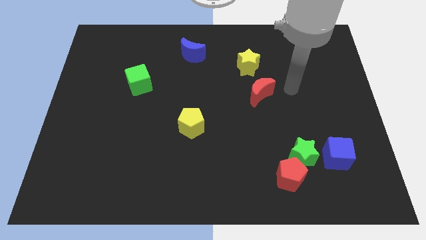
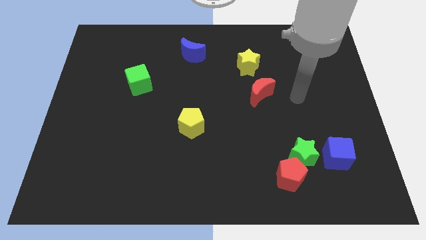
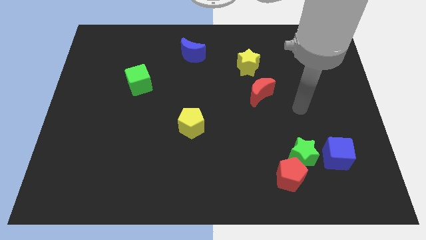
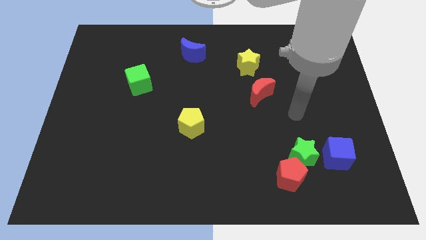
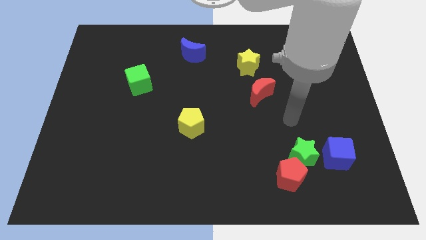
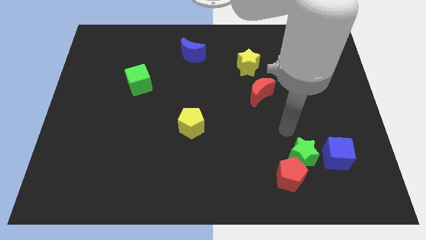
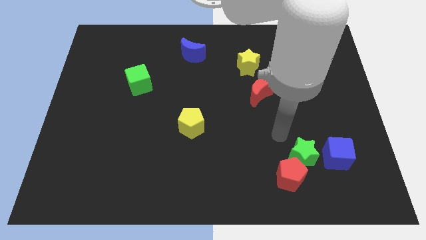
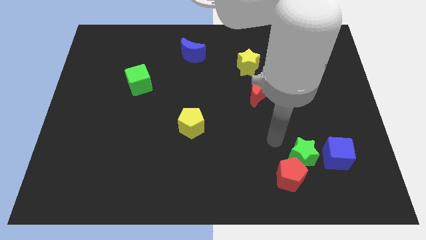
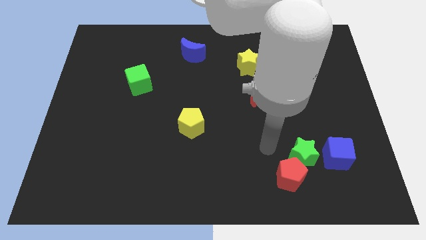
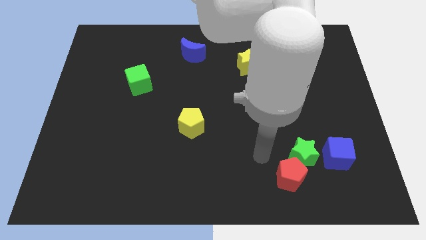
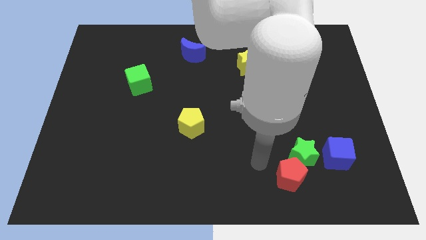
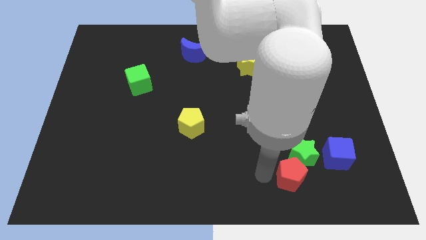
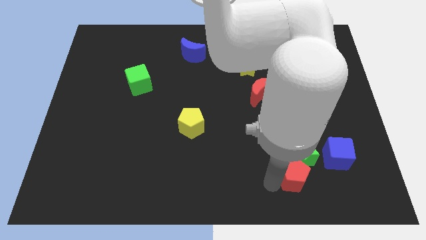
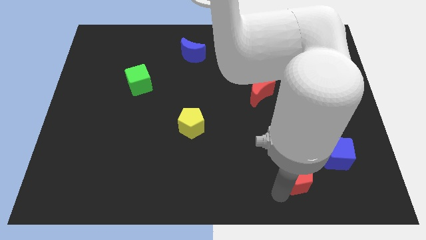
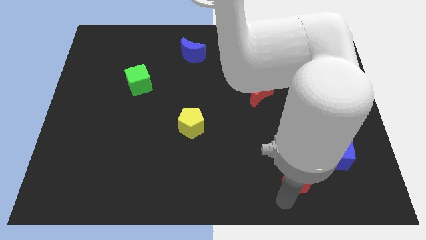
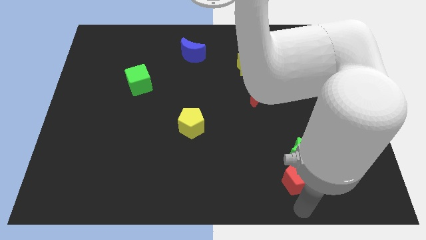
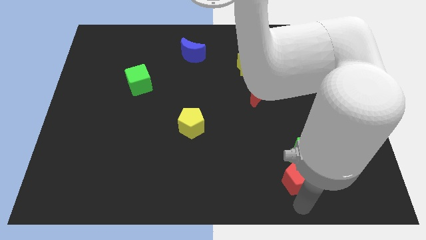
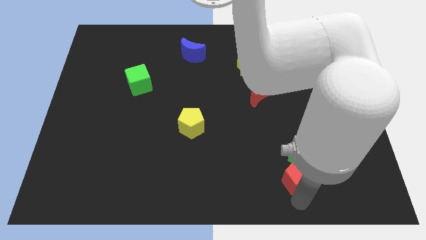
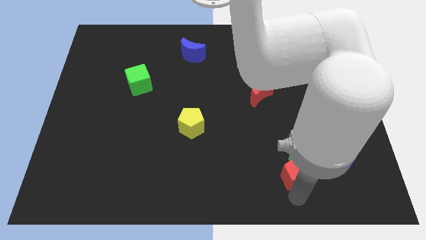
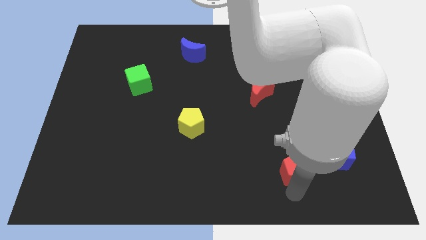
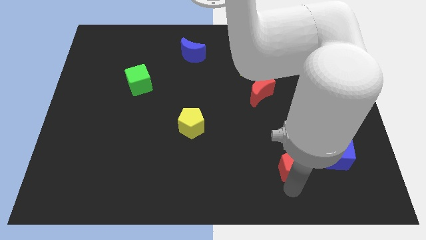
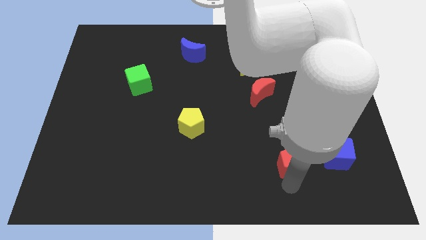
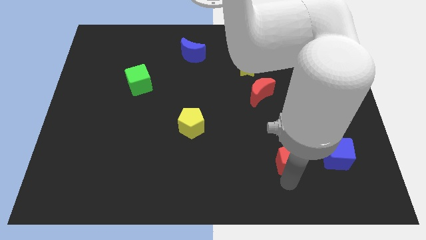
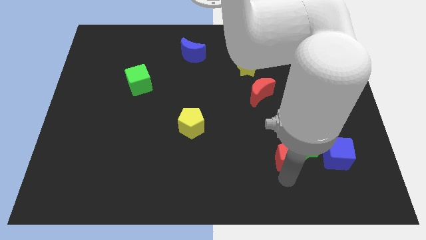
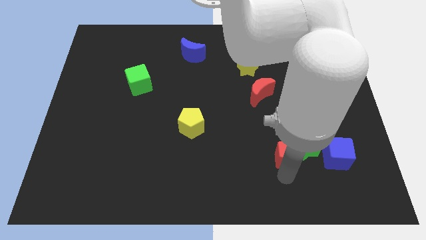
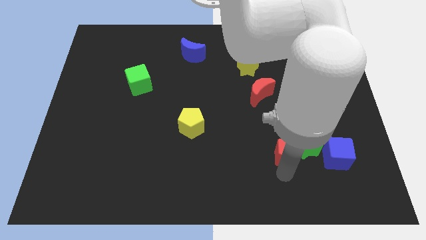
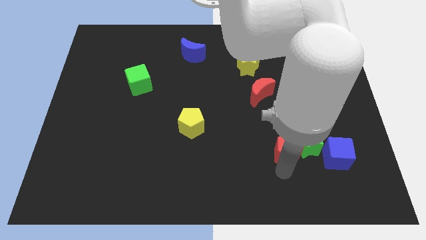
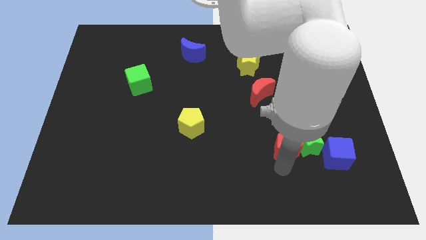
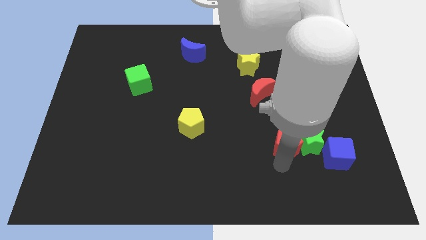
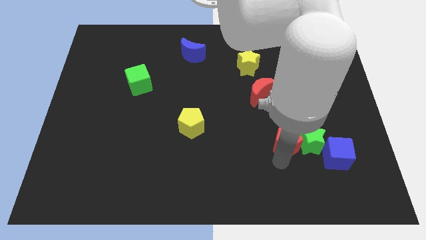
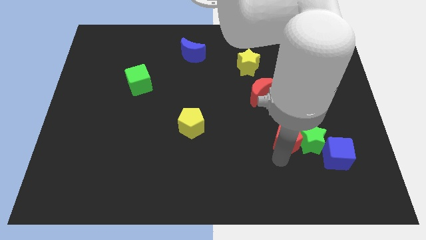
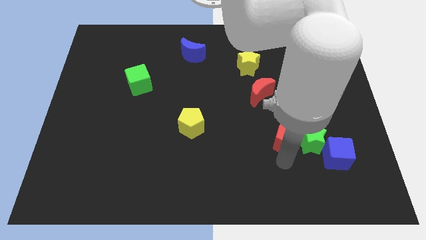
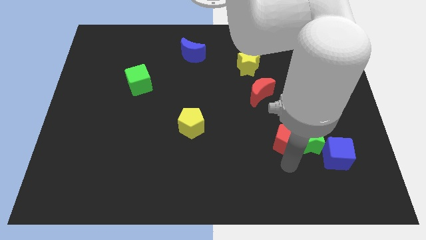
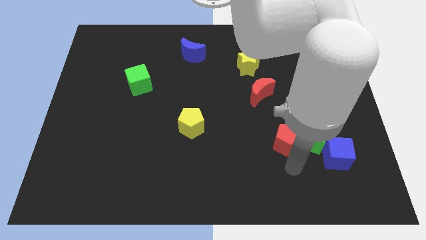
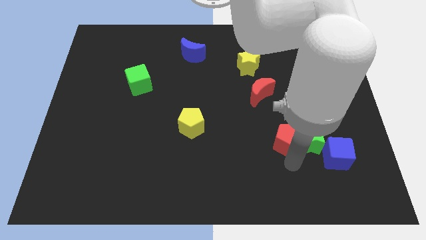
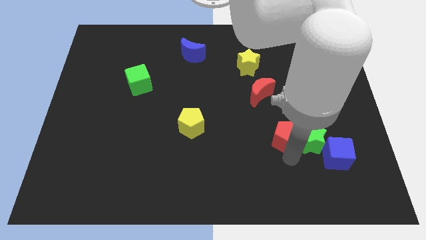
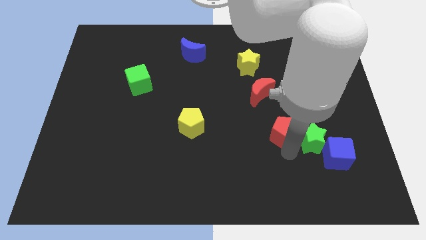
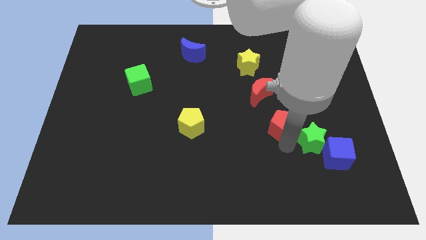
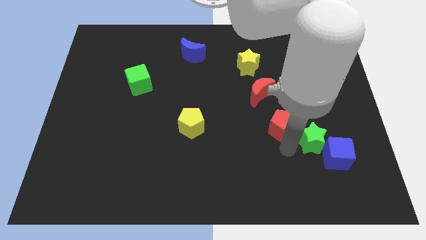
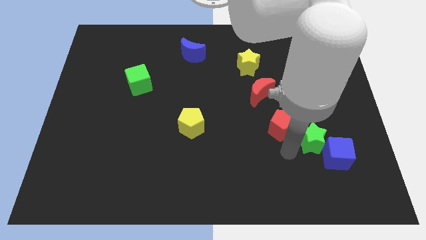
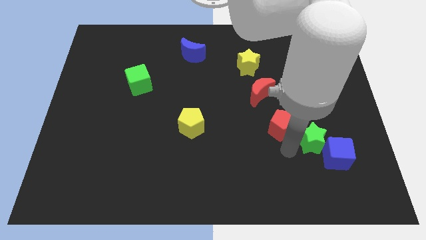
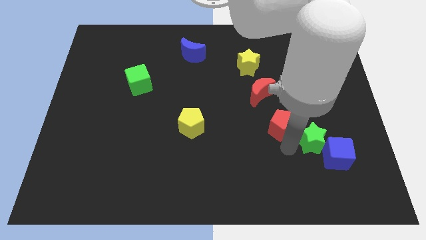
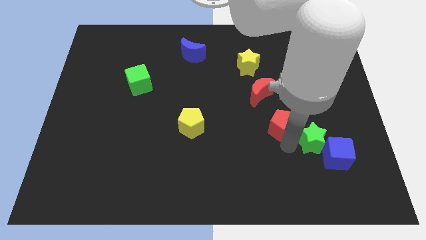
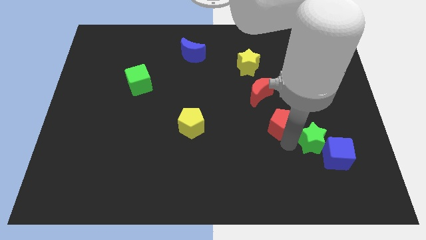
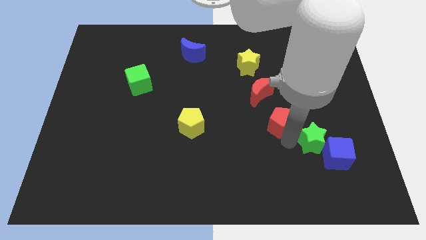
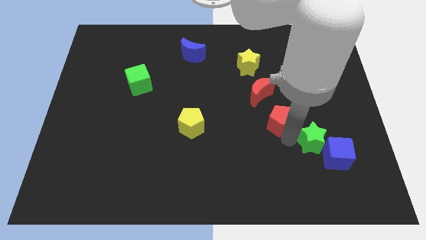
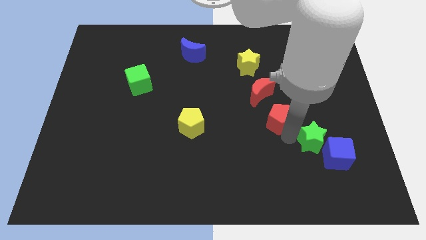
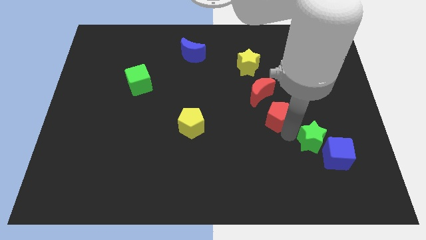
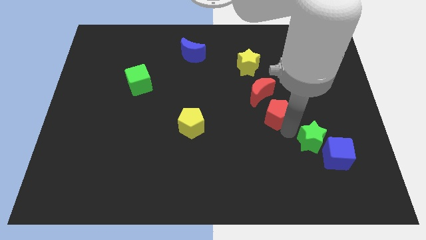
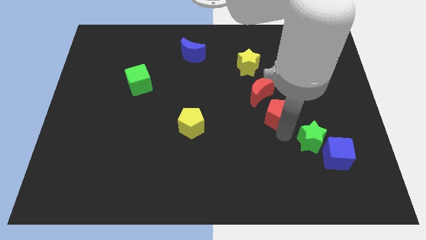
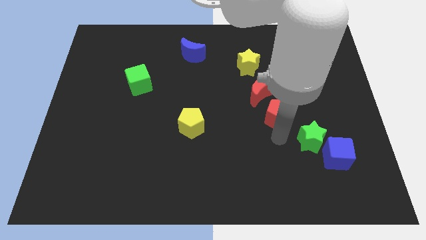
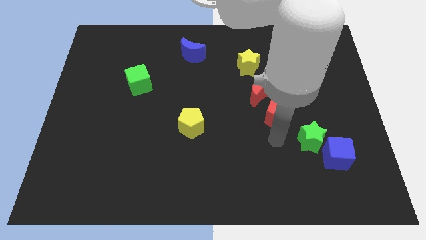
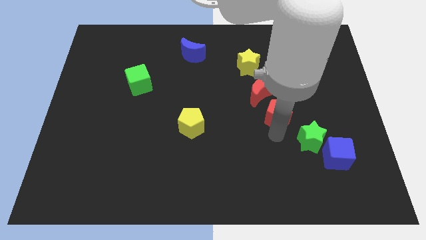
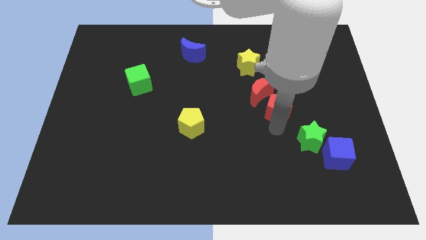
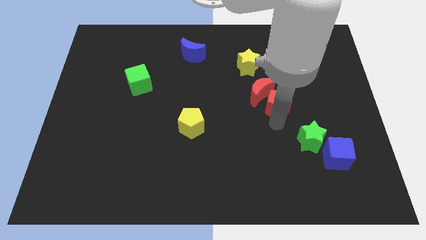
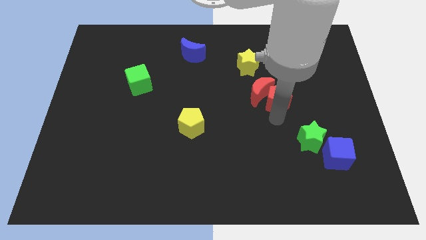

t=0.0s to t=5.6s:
slide the red pentagon upwards

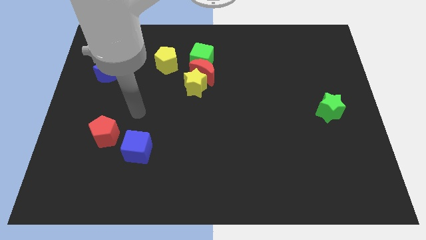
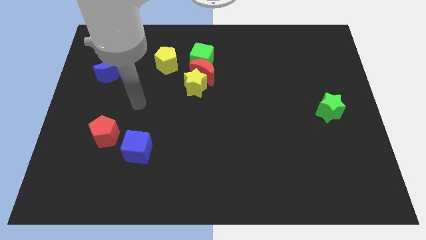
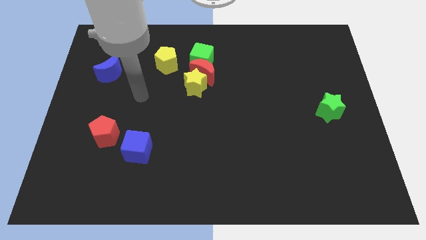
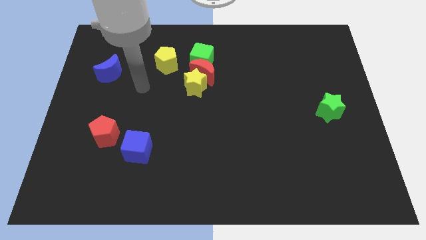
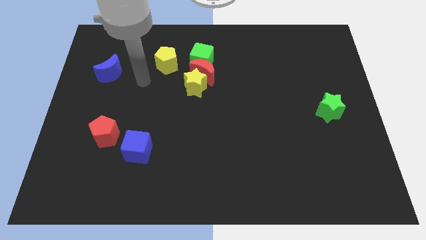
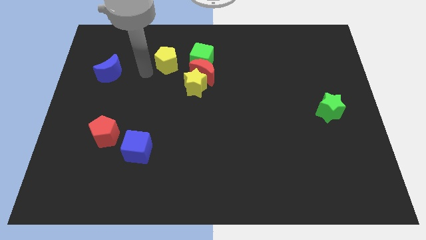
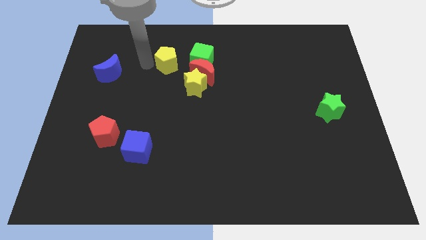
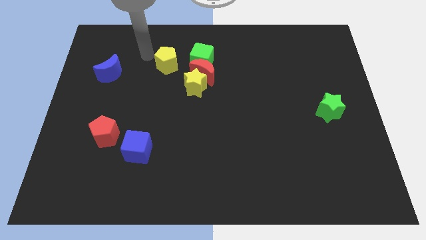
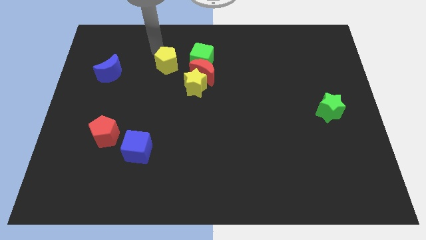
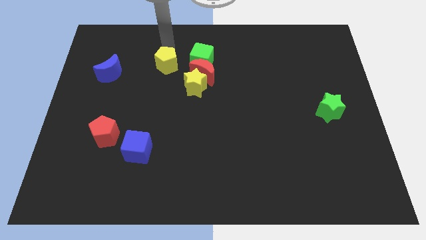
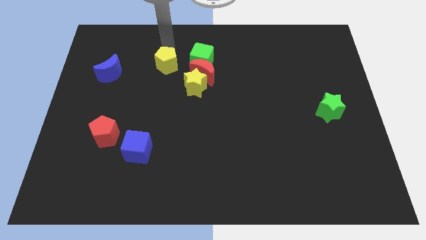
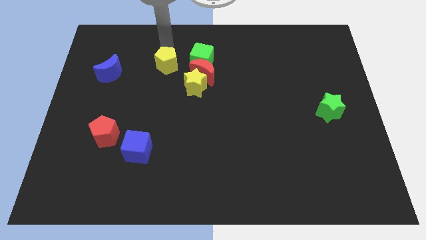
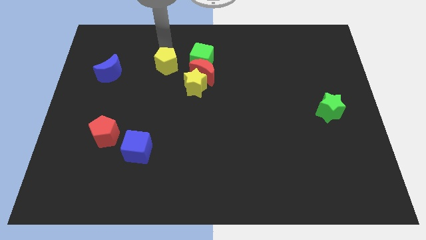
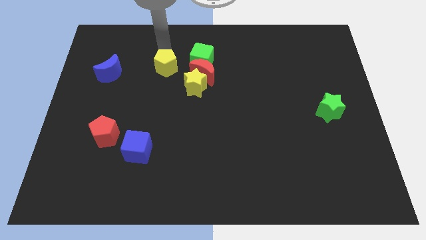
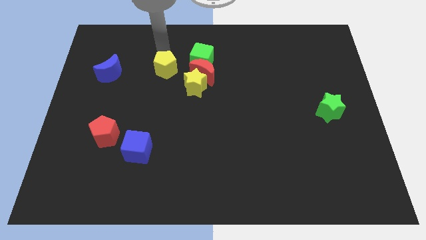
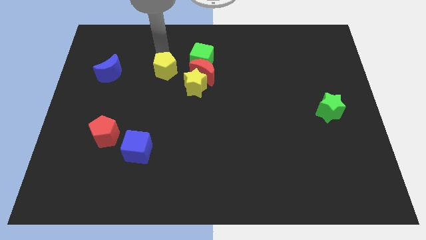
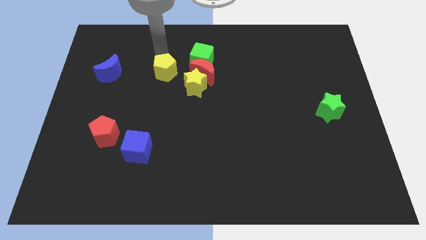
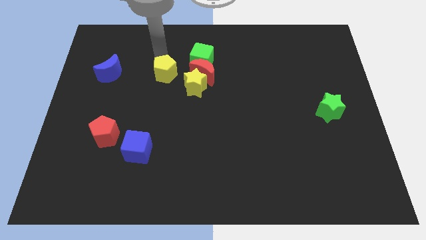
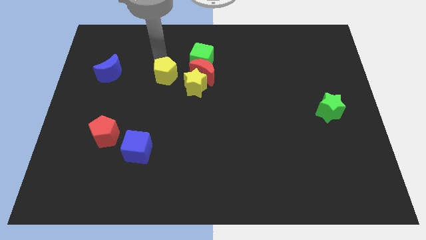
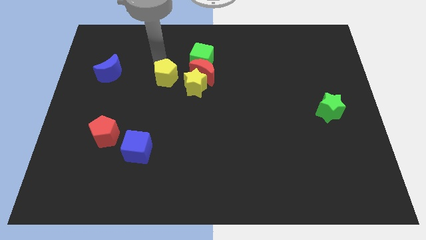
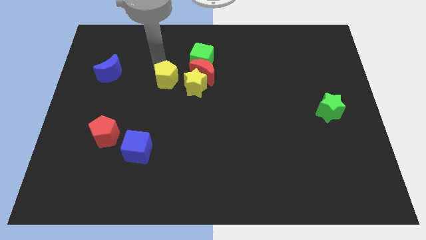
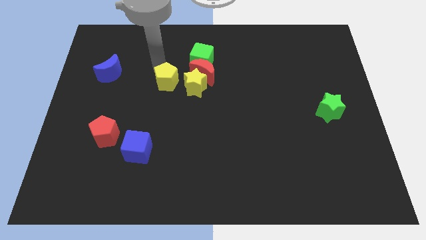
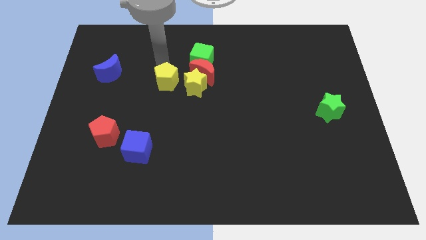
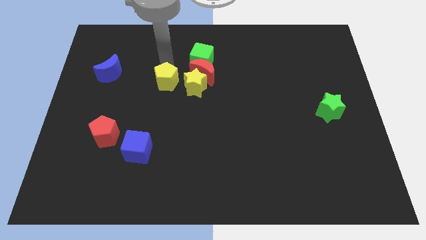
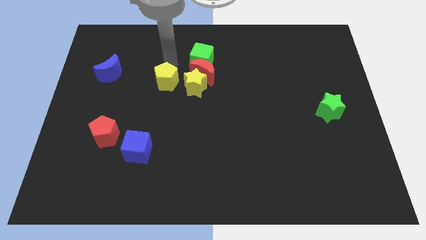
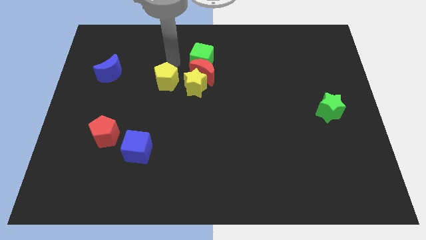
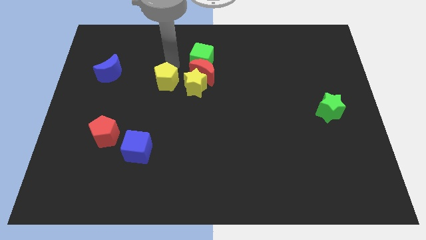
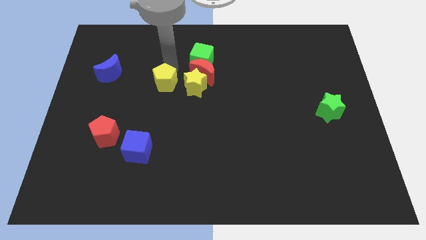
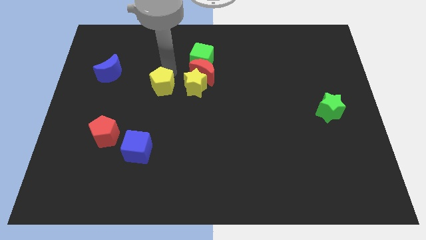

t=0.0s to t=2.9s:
slide the yellow pentagon down a bit
